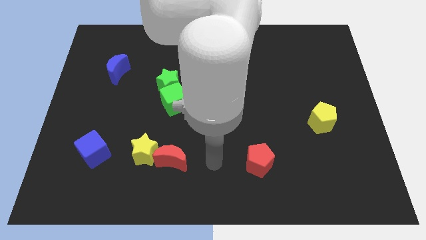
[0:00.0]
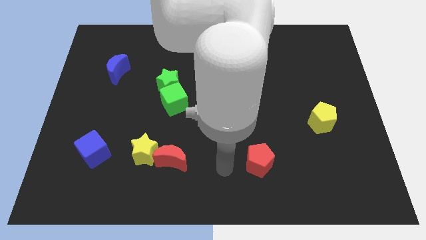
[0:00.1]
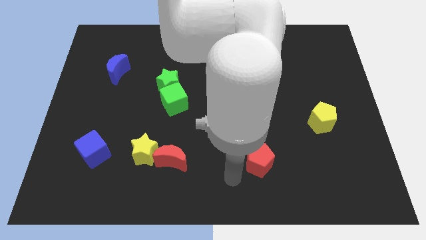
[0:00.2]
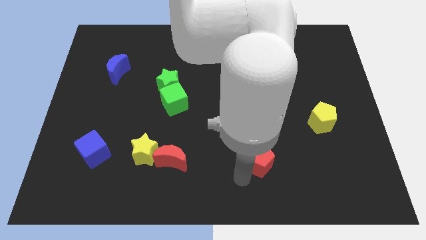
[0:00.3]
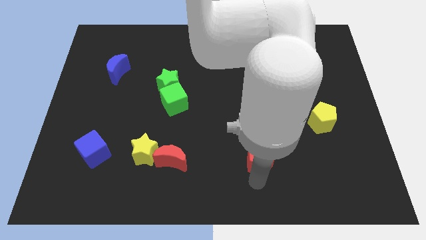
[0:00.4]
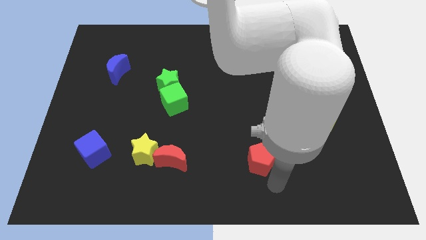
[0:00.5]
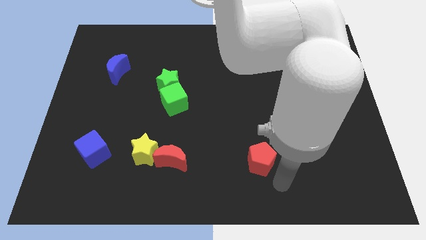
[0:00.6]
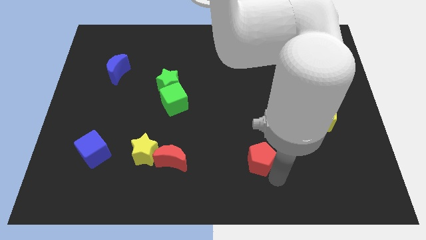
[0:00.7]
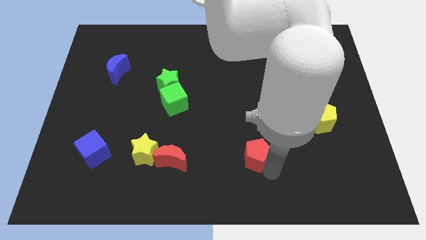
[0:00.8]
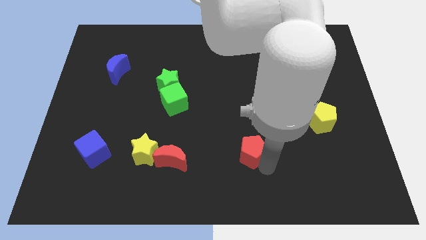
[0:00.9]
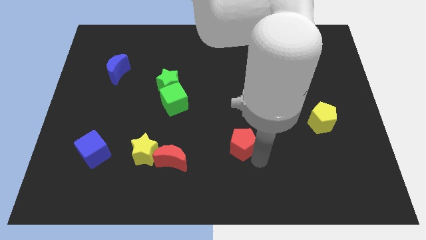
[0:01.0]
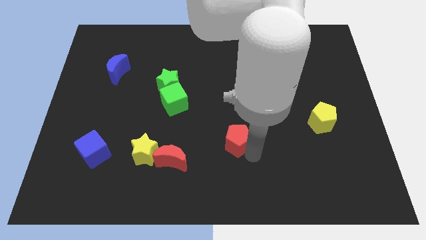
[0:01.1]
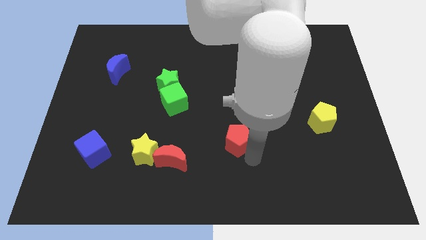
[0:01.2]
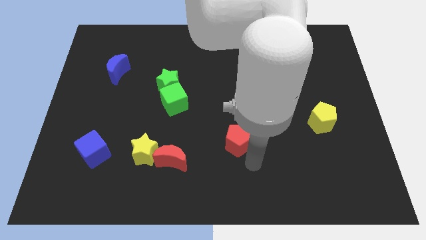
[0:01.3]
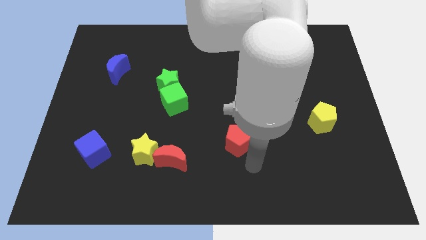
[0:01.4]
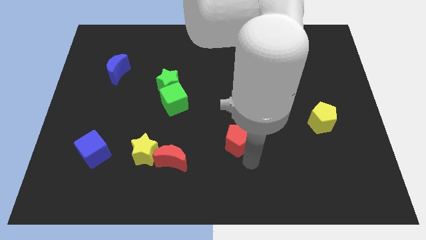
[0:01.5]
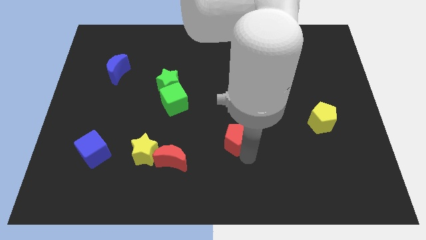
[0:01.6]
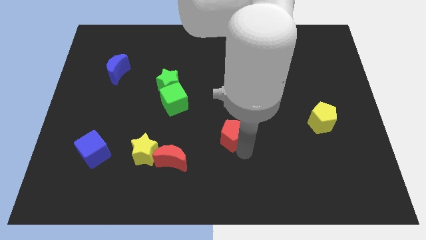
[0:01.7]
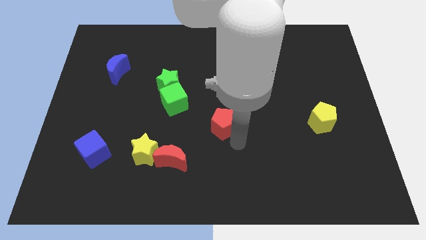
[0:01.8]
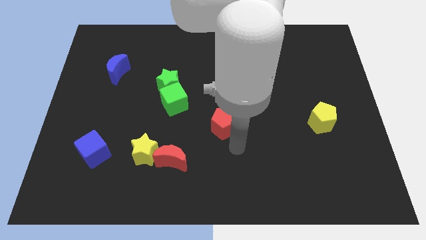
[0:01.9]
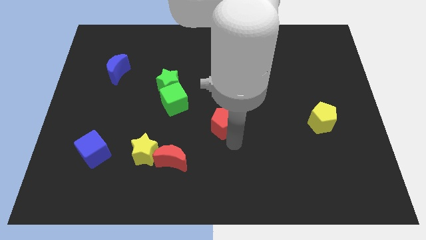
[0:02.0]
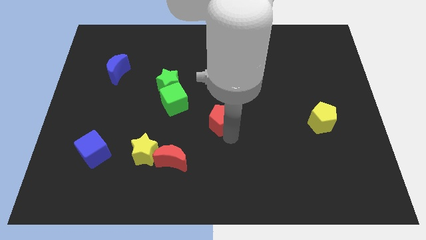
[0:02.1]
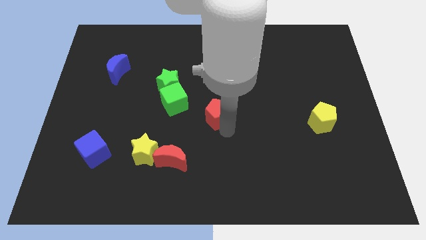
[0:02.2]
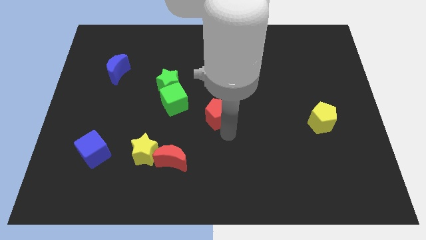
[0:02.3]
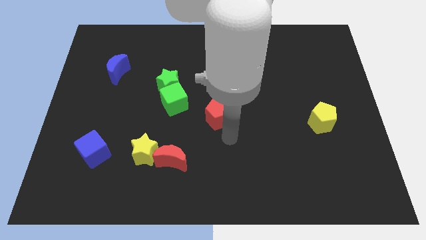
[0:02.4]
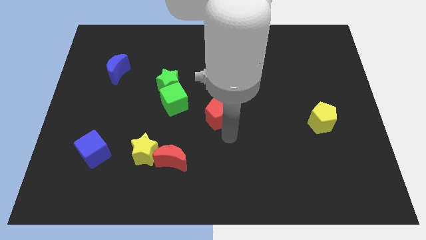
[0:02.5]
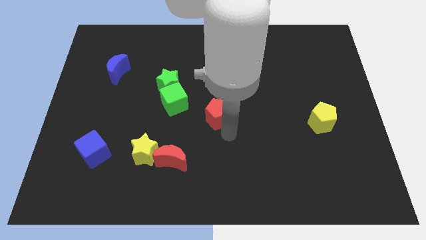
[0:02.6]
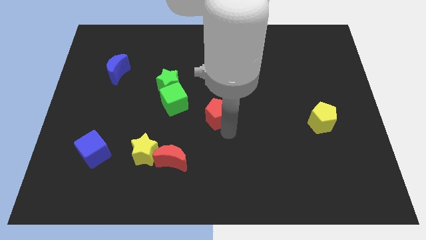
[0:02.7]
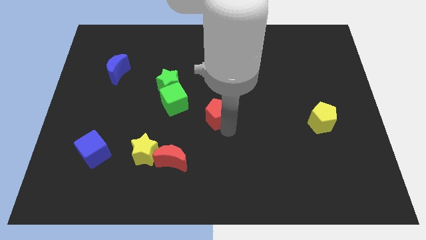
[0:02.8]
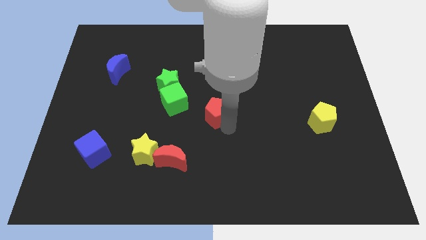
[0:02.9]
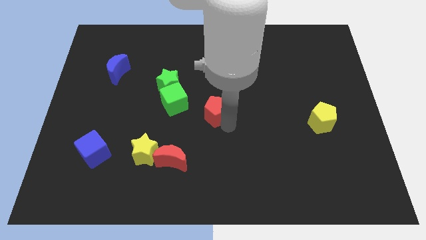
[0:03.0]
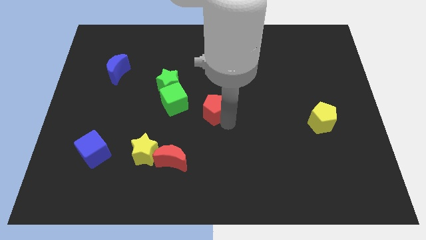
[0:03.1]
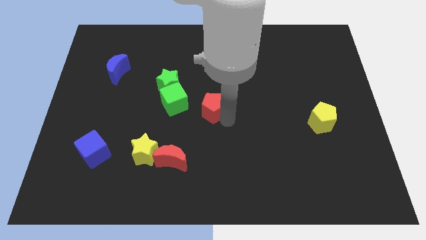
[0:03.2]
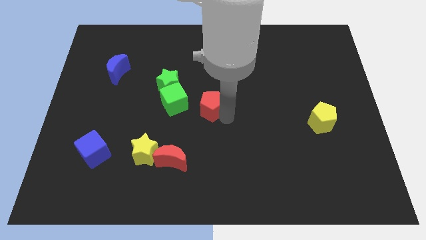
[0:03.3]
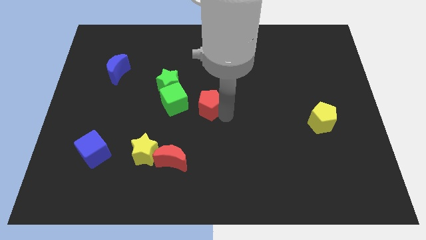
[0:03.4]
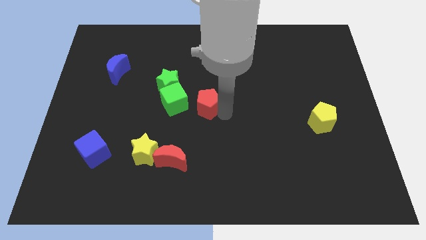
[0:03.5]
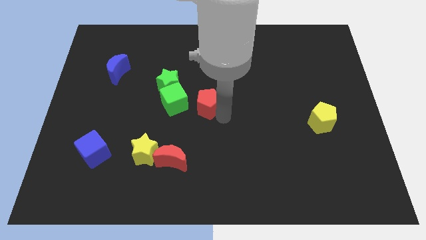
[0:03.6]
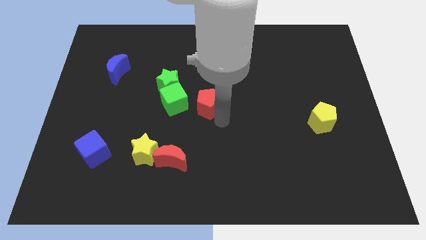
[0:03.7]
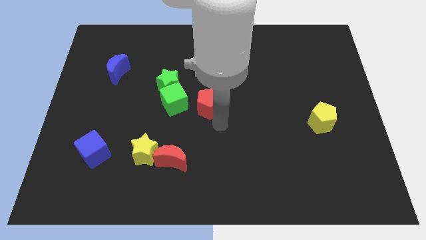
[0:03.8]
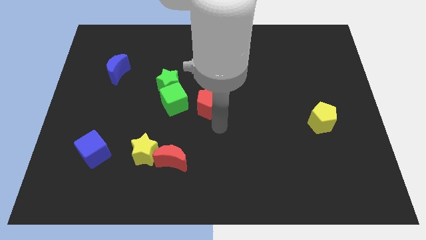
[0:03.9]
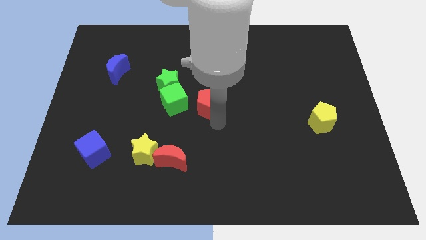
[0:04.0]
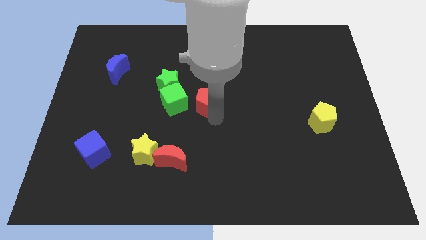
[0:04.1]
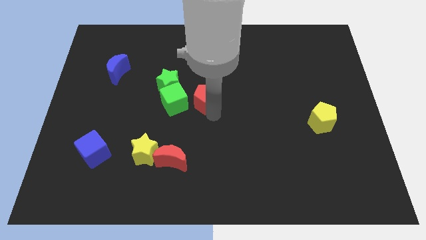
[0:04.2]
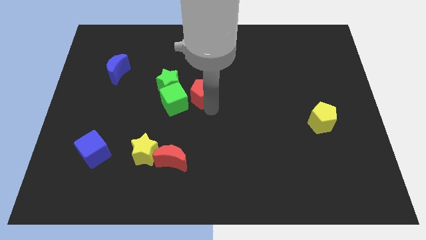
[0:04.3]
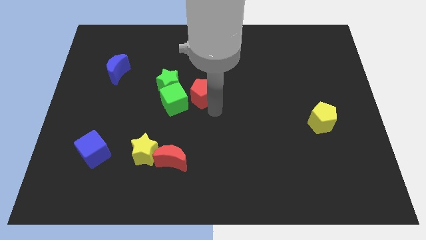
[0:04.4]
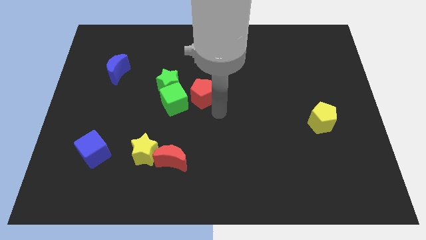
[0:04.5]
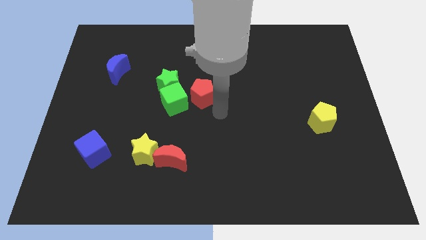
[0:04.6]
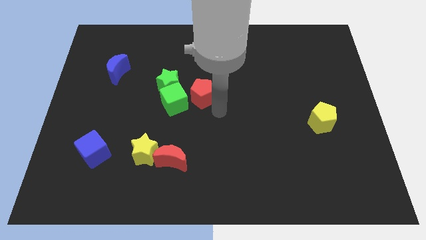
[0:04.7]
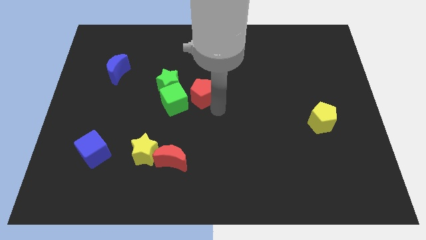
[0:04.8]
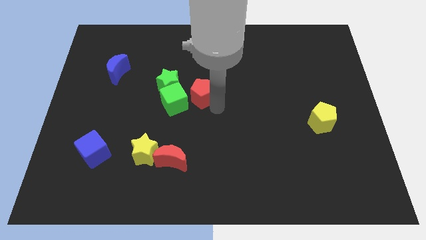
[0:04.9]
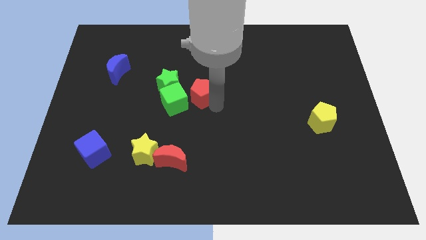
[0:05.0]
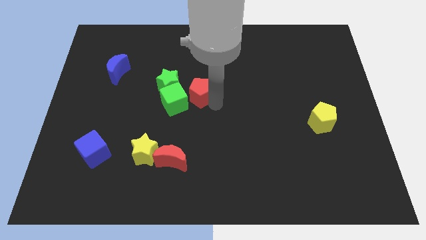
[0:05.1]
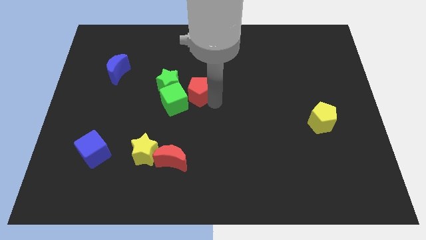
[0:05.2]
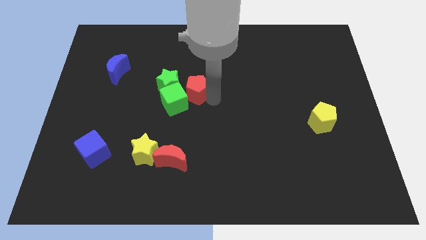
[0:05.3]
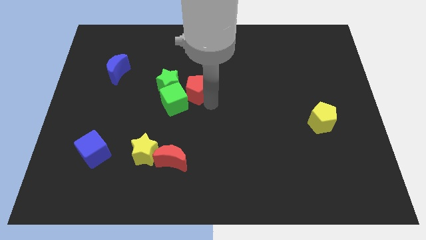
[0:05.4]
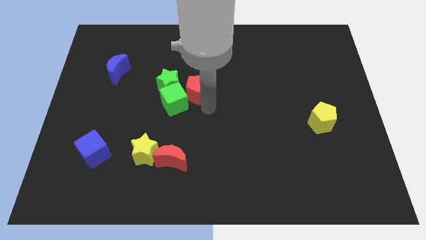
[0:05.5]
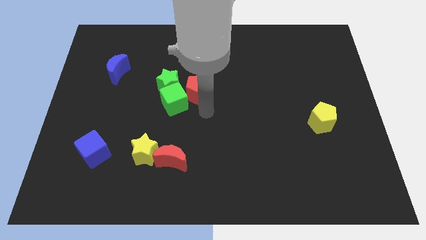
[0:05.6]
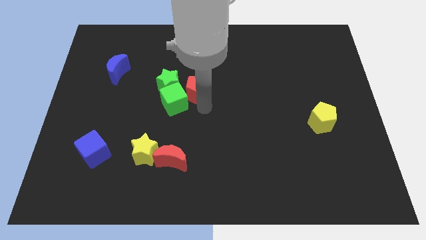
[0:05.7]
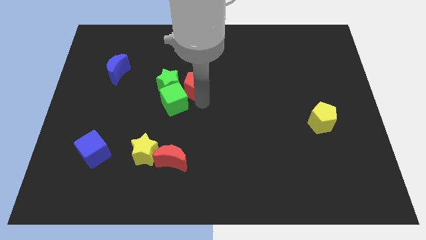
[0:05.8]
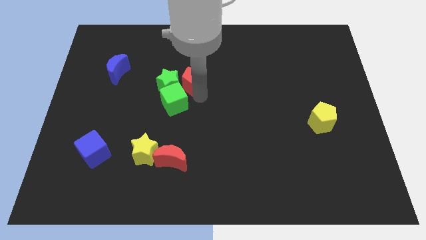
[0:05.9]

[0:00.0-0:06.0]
push the red pentagon to the top right side of the green star

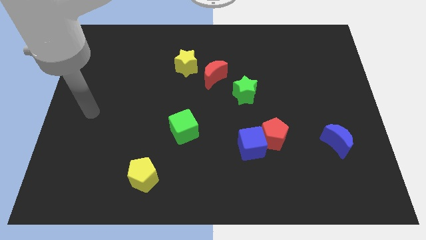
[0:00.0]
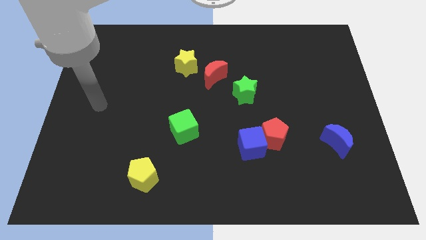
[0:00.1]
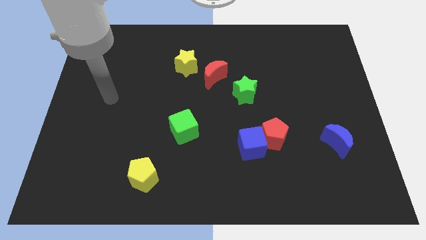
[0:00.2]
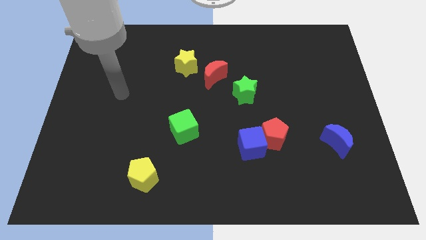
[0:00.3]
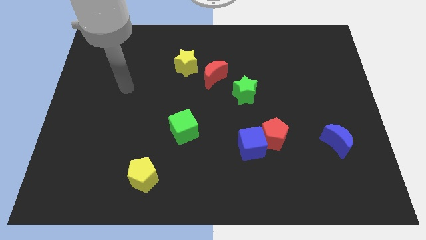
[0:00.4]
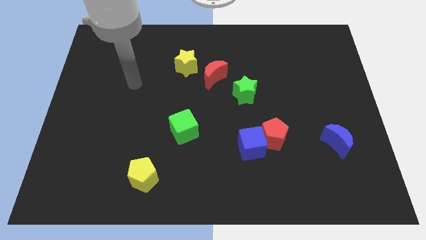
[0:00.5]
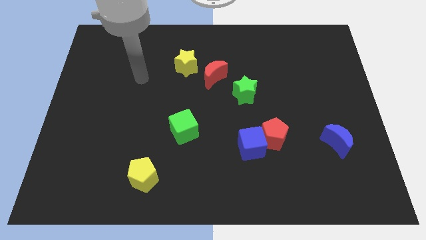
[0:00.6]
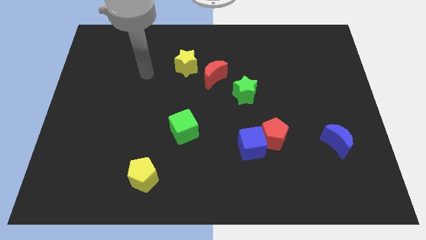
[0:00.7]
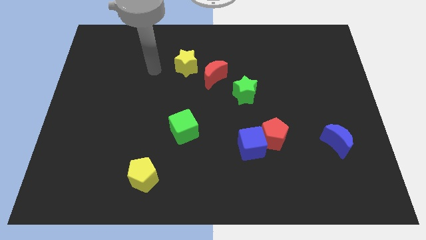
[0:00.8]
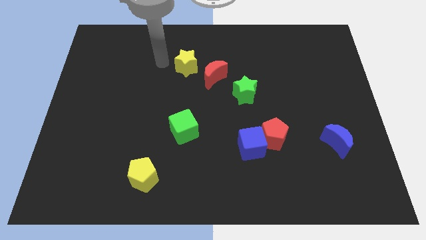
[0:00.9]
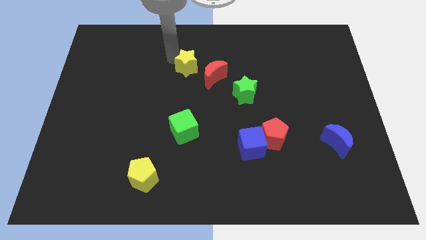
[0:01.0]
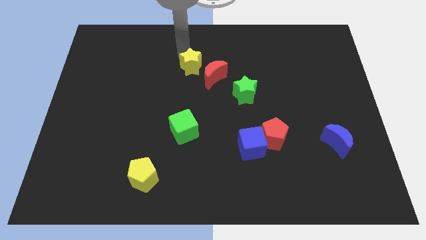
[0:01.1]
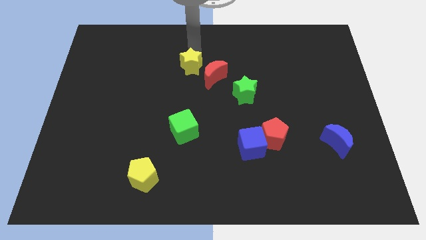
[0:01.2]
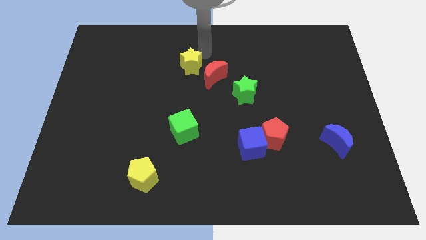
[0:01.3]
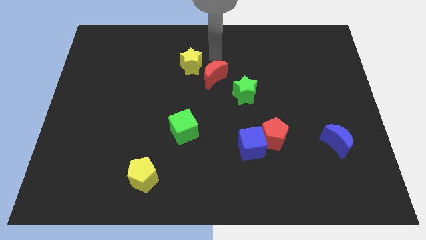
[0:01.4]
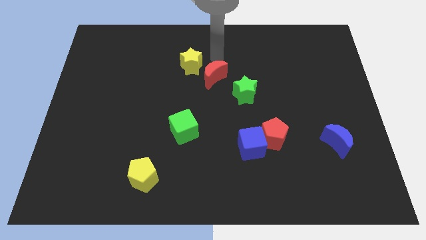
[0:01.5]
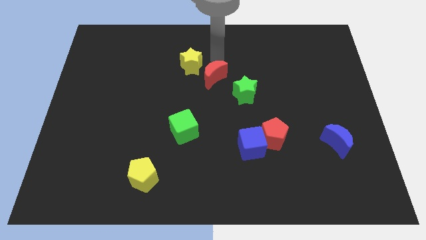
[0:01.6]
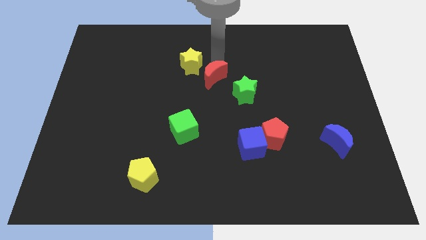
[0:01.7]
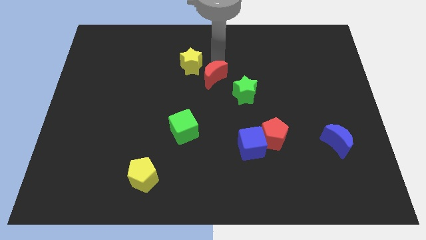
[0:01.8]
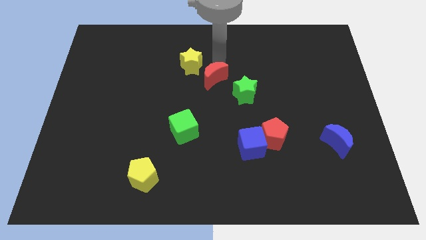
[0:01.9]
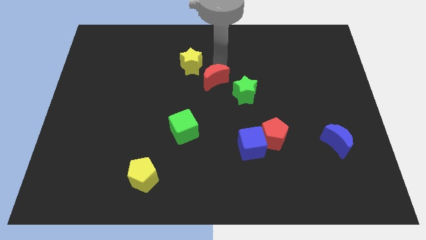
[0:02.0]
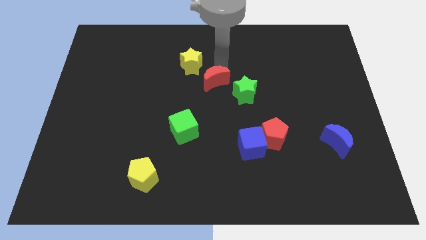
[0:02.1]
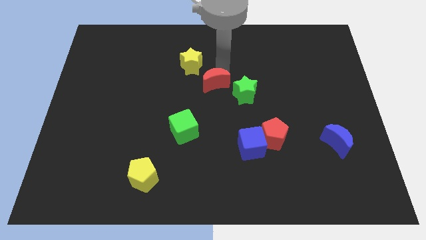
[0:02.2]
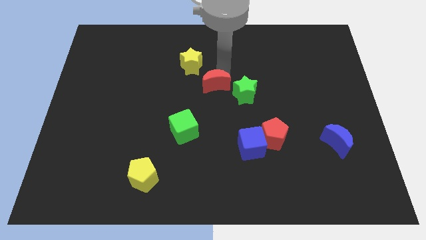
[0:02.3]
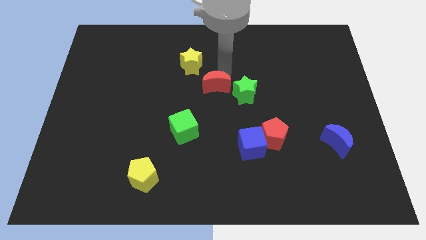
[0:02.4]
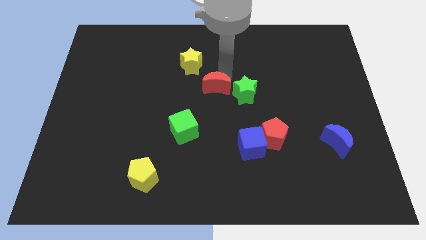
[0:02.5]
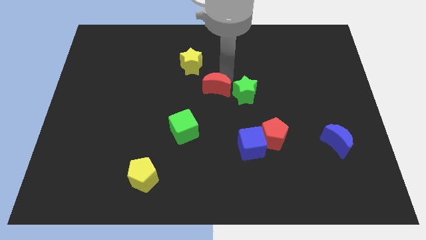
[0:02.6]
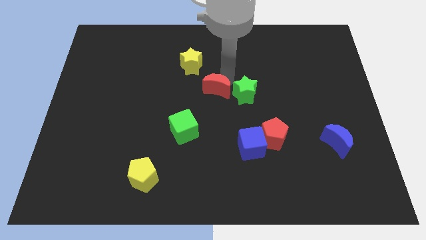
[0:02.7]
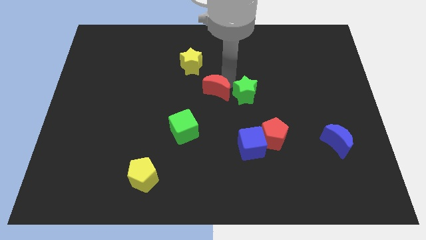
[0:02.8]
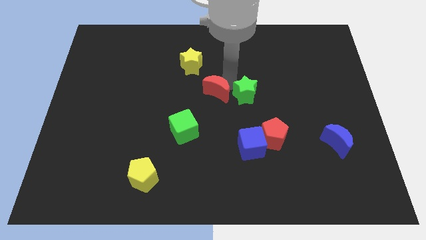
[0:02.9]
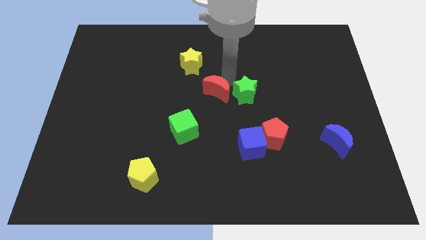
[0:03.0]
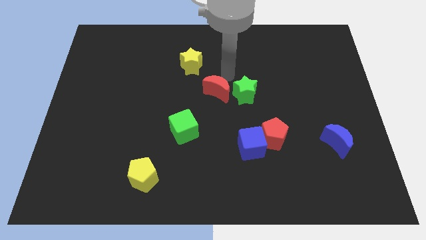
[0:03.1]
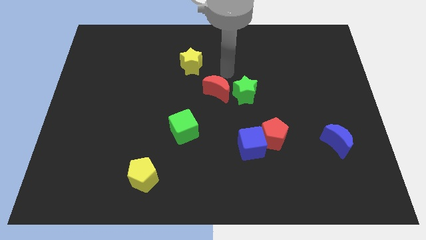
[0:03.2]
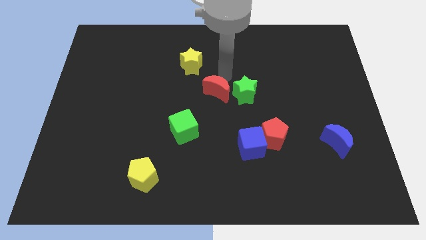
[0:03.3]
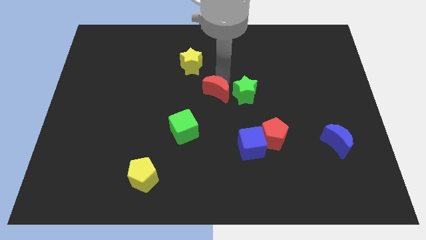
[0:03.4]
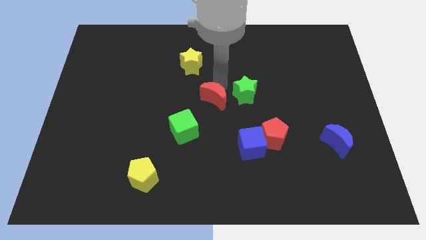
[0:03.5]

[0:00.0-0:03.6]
push the red moon diagonally up and to the right of the green cube
